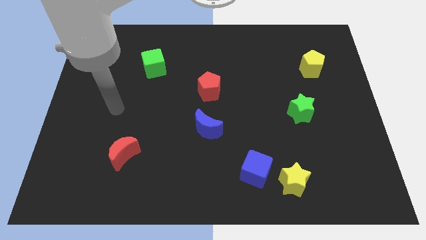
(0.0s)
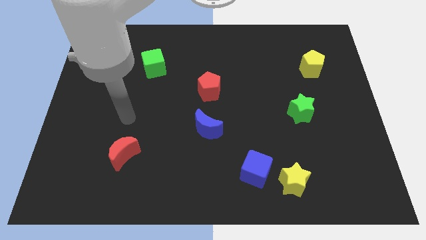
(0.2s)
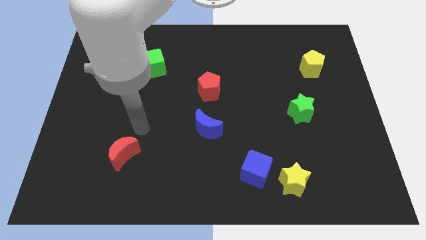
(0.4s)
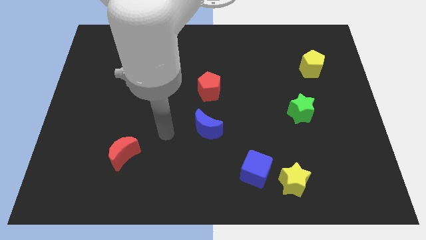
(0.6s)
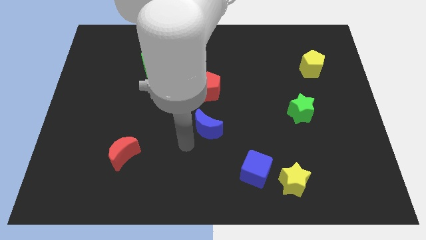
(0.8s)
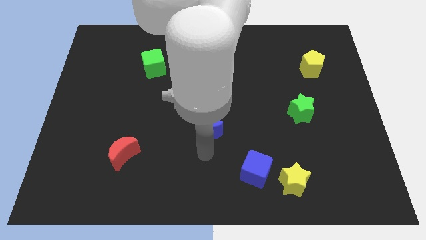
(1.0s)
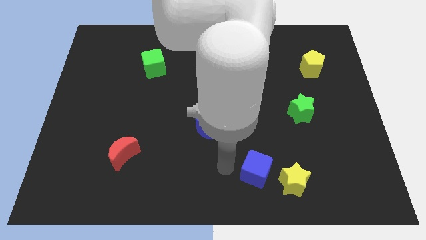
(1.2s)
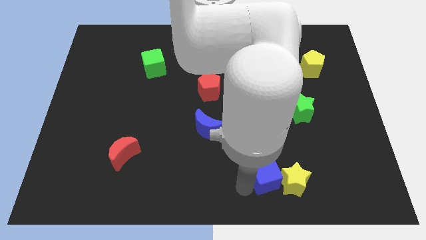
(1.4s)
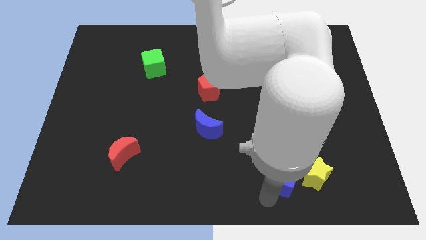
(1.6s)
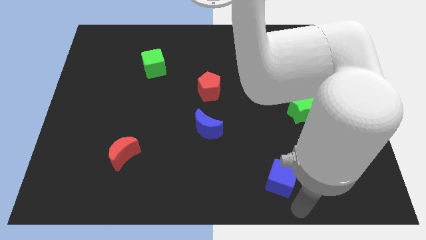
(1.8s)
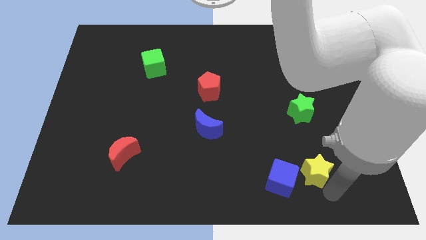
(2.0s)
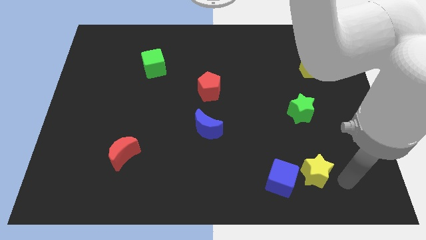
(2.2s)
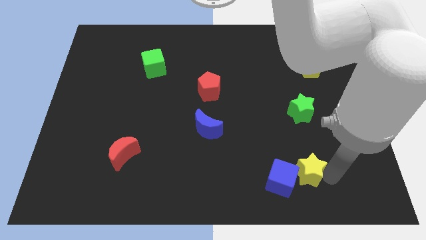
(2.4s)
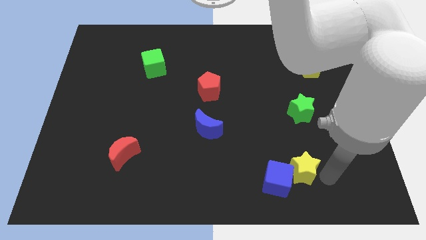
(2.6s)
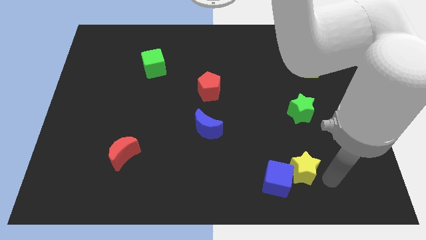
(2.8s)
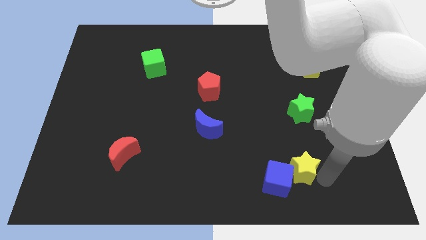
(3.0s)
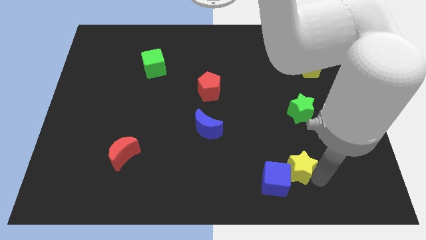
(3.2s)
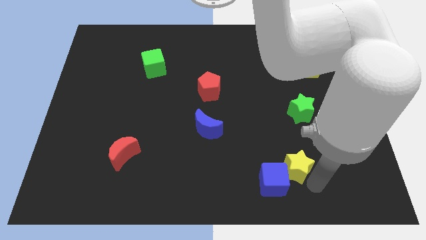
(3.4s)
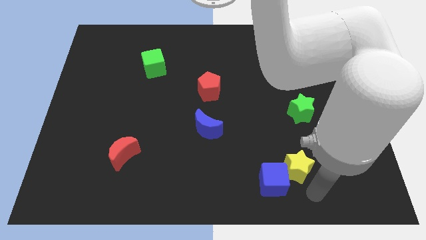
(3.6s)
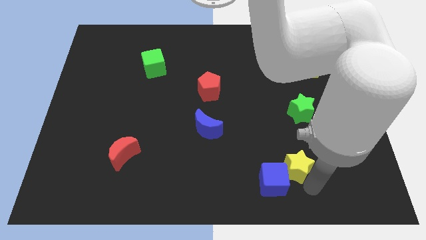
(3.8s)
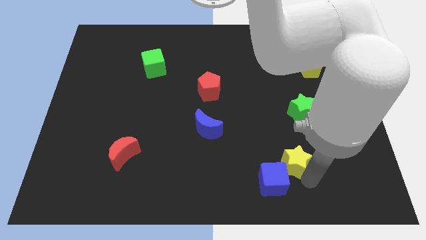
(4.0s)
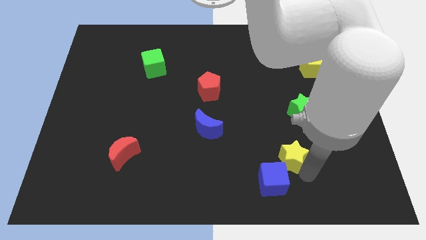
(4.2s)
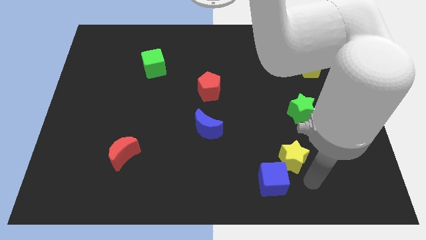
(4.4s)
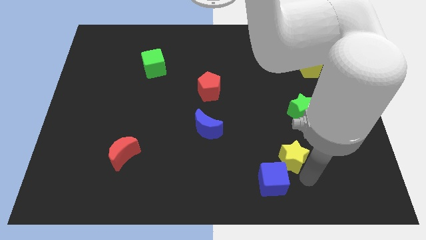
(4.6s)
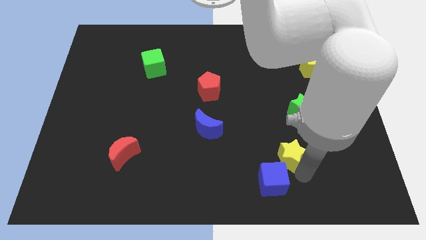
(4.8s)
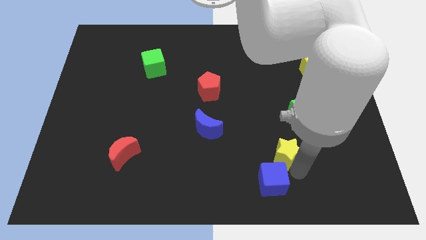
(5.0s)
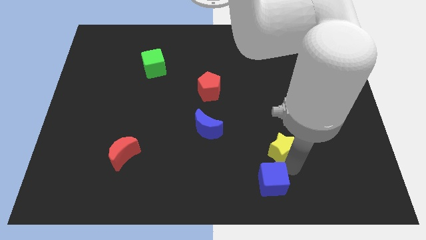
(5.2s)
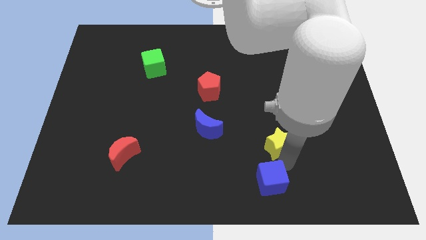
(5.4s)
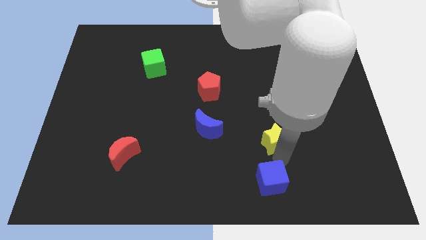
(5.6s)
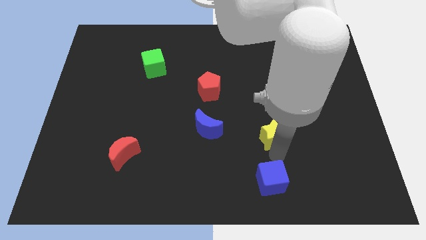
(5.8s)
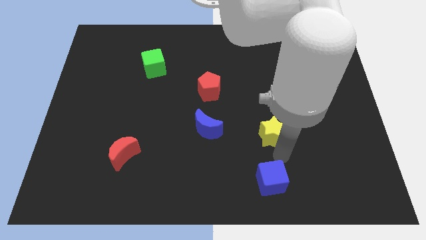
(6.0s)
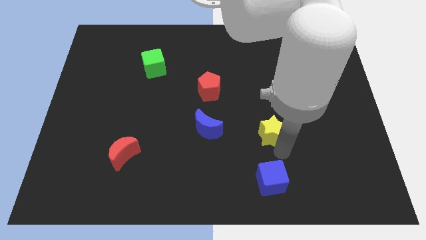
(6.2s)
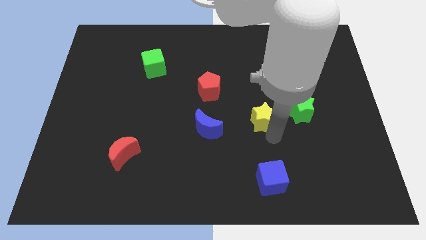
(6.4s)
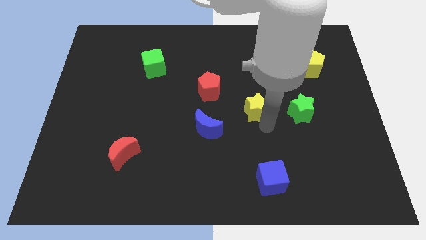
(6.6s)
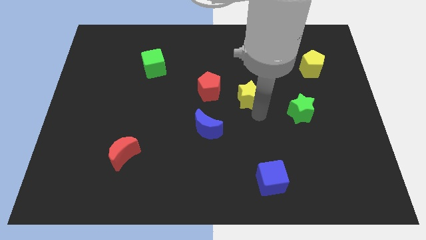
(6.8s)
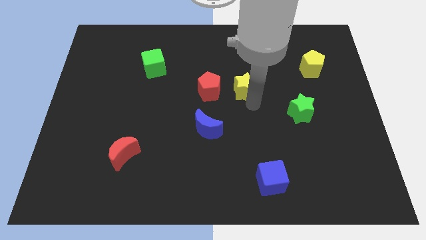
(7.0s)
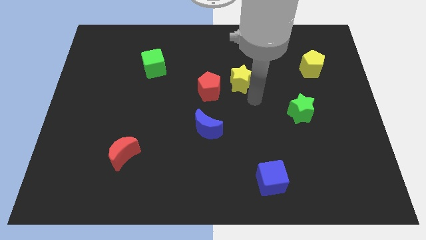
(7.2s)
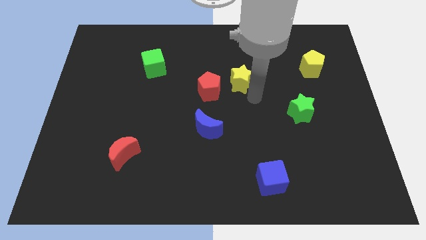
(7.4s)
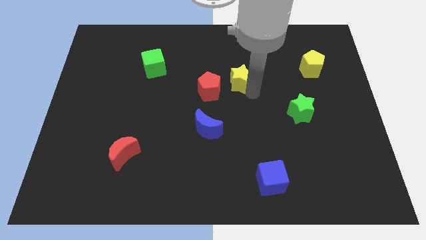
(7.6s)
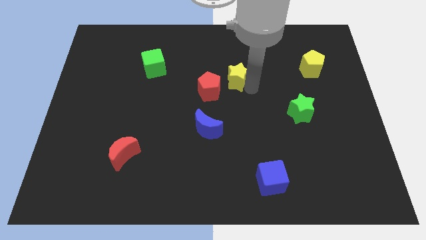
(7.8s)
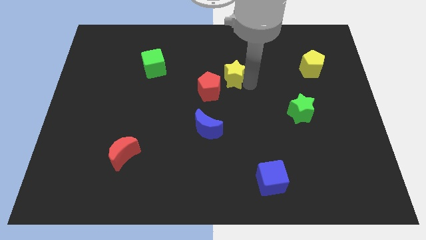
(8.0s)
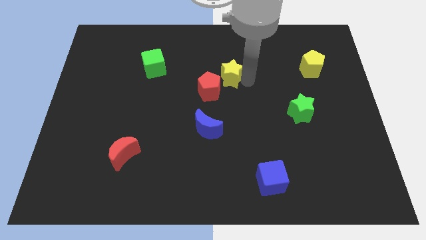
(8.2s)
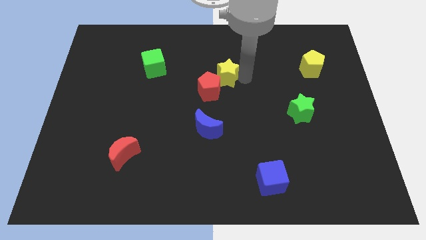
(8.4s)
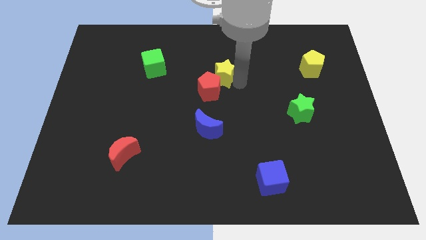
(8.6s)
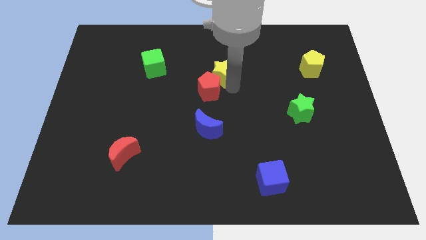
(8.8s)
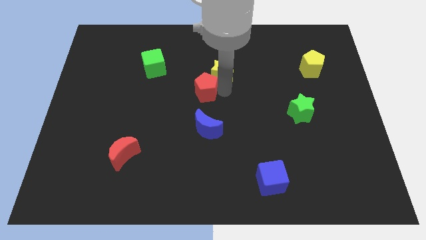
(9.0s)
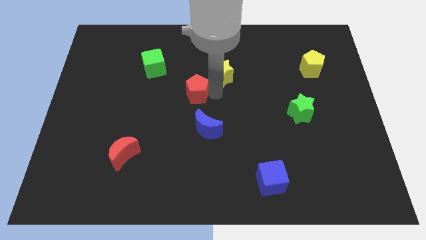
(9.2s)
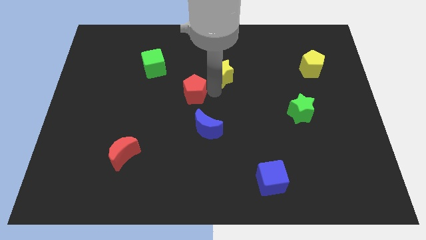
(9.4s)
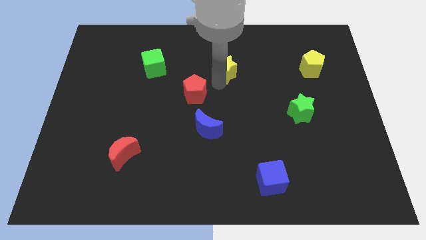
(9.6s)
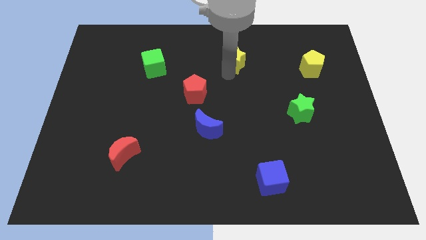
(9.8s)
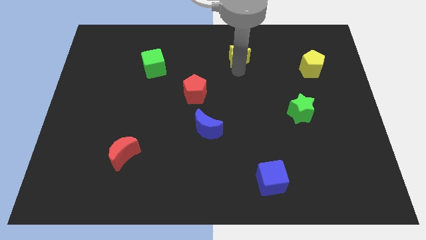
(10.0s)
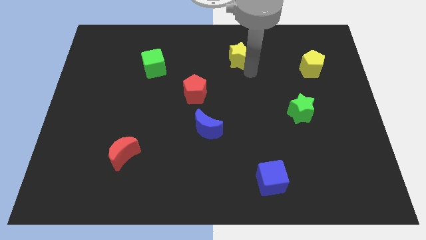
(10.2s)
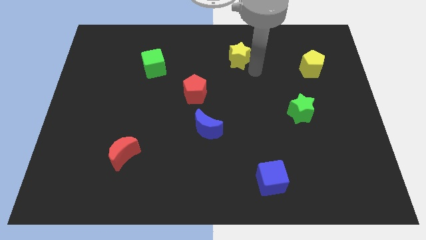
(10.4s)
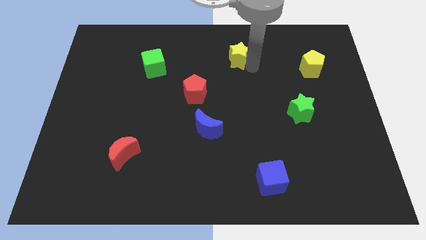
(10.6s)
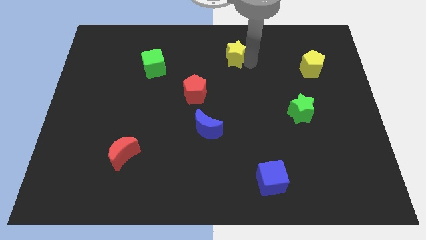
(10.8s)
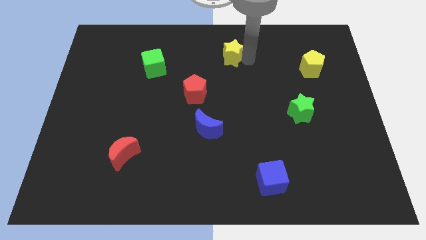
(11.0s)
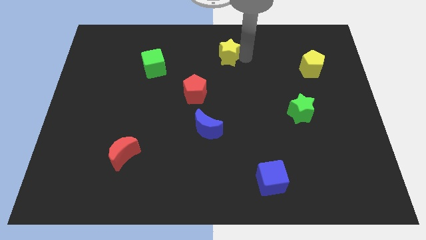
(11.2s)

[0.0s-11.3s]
put the yellow star to the towards your base
